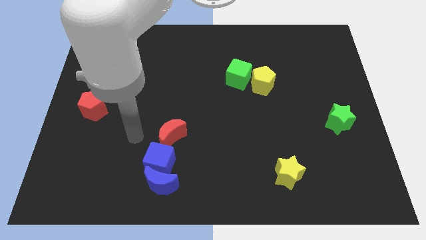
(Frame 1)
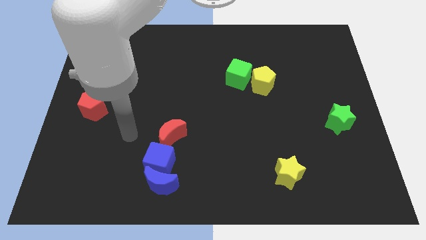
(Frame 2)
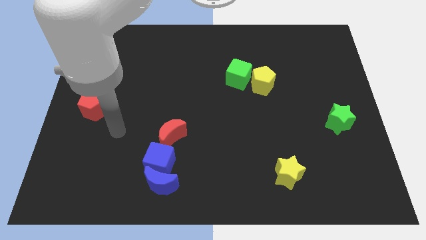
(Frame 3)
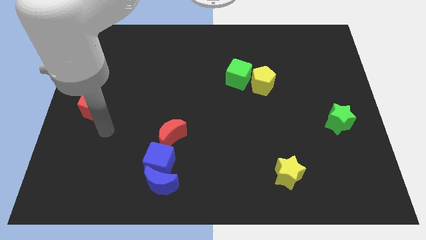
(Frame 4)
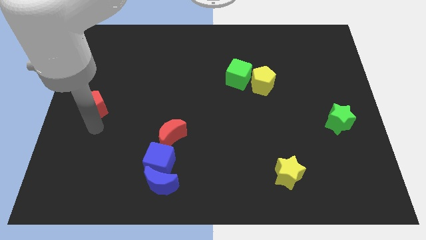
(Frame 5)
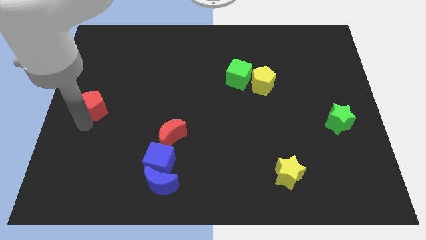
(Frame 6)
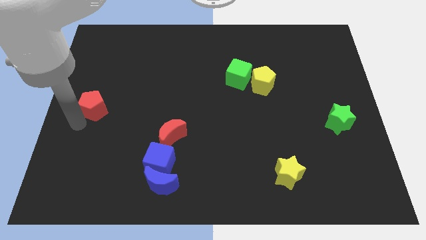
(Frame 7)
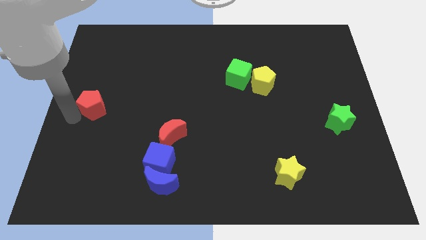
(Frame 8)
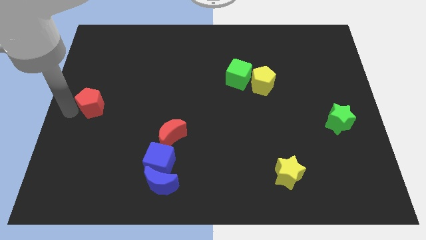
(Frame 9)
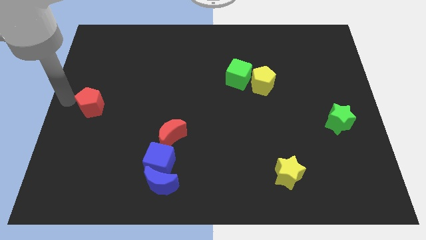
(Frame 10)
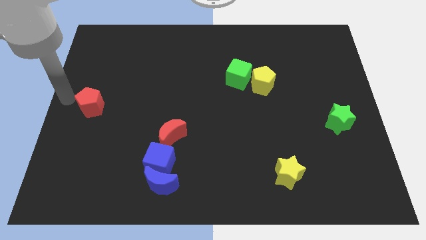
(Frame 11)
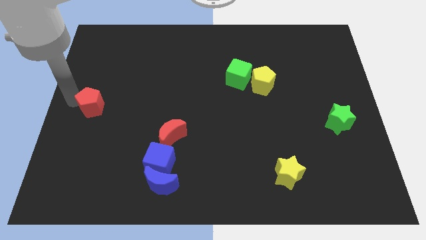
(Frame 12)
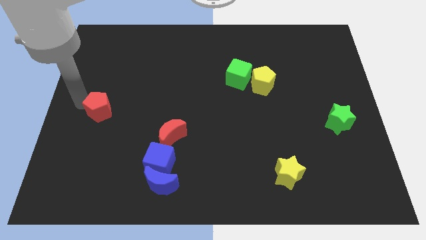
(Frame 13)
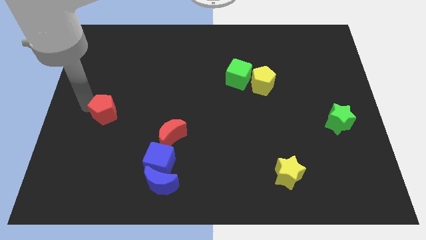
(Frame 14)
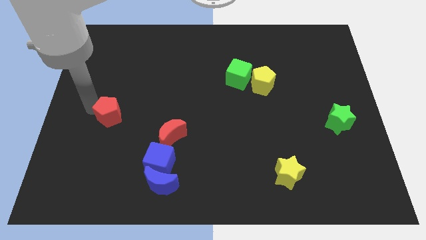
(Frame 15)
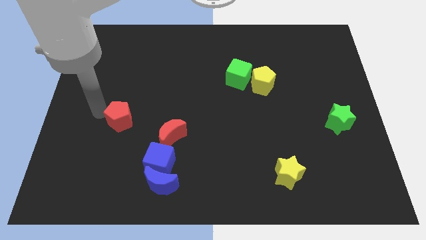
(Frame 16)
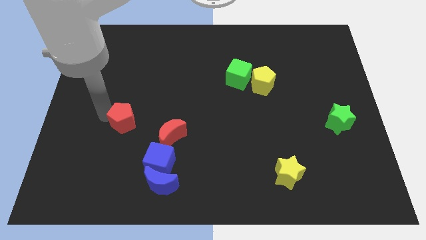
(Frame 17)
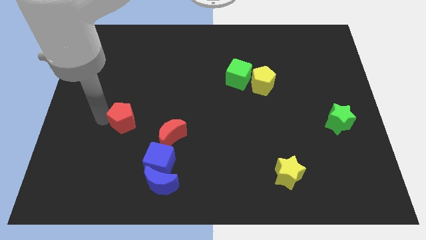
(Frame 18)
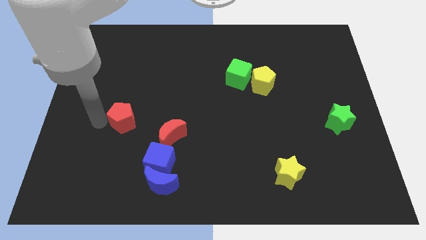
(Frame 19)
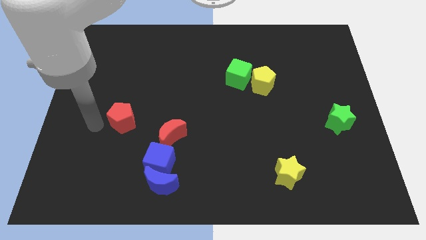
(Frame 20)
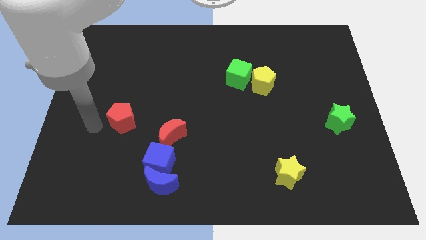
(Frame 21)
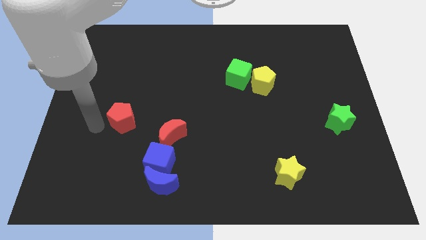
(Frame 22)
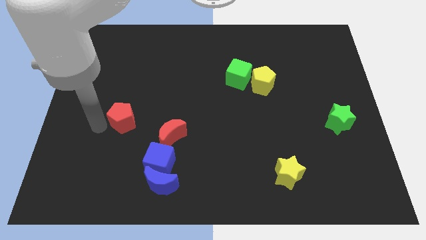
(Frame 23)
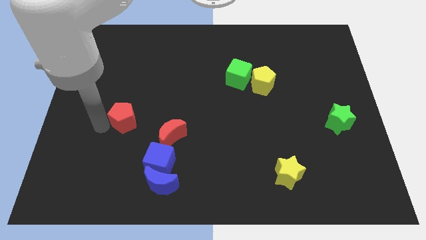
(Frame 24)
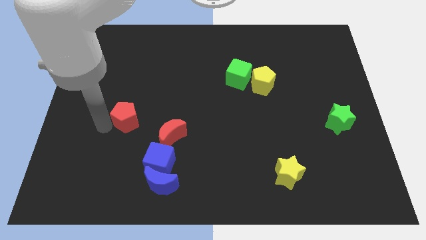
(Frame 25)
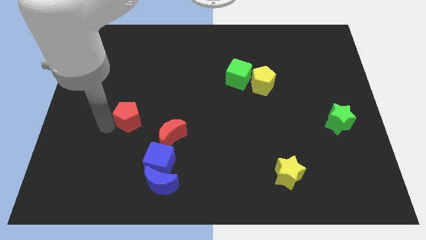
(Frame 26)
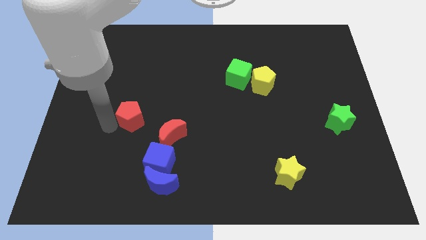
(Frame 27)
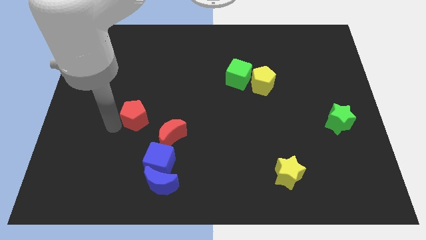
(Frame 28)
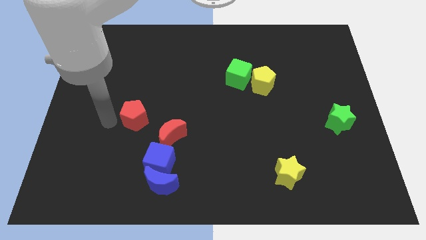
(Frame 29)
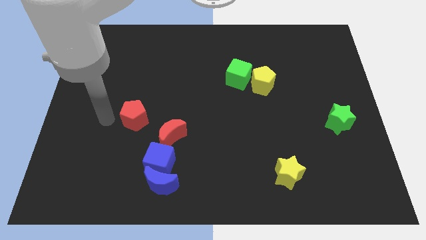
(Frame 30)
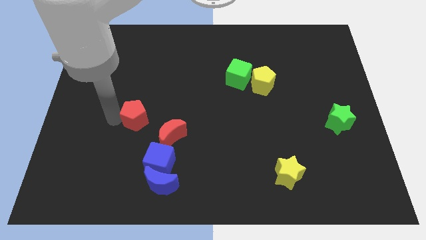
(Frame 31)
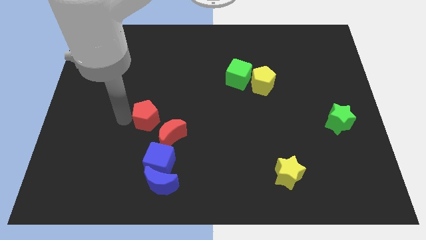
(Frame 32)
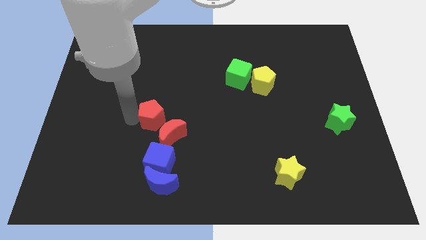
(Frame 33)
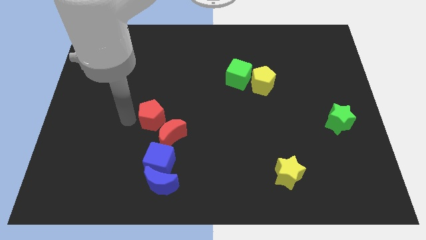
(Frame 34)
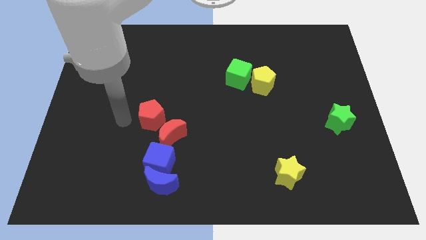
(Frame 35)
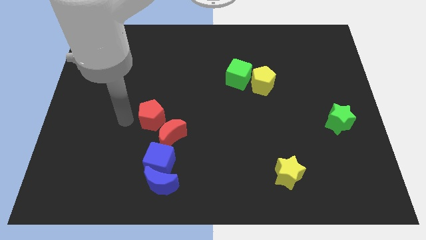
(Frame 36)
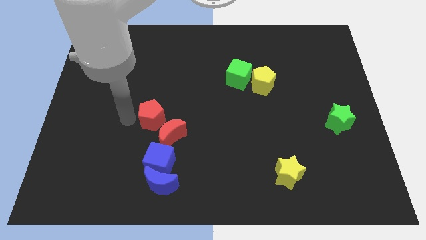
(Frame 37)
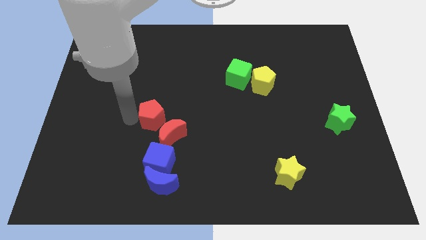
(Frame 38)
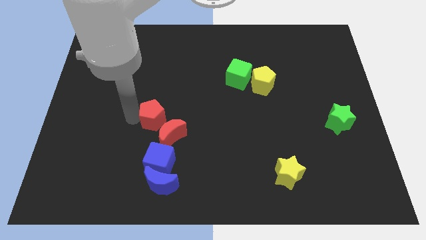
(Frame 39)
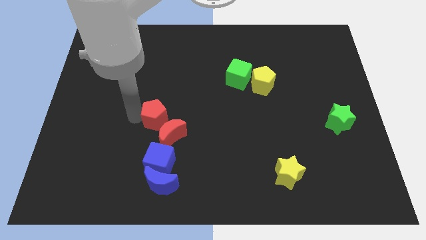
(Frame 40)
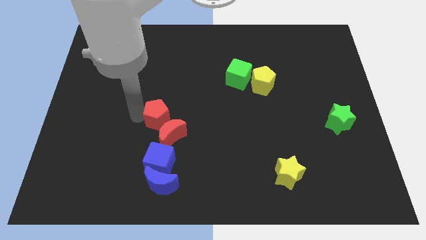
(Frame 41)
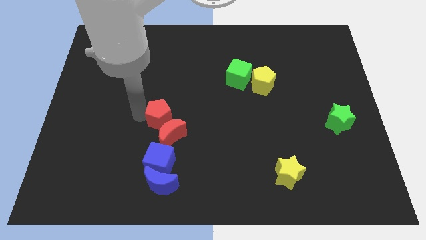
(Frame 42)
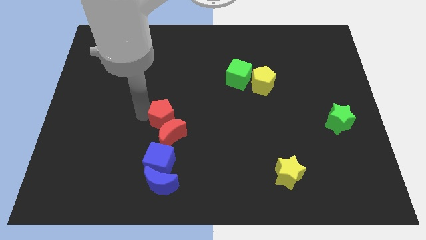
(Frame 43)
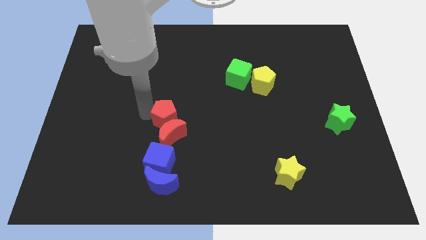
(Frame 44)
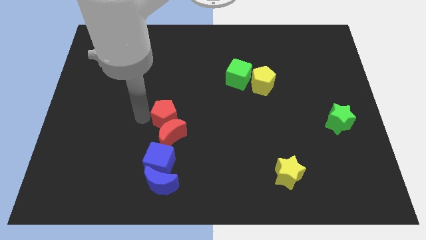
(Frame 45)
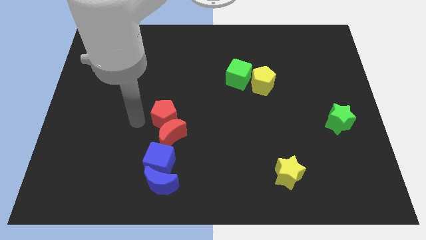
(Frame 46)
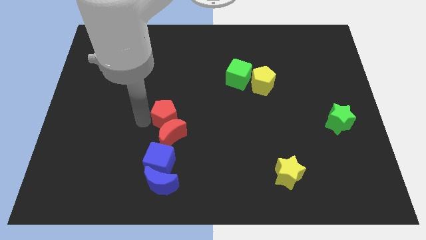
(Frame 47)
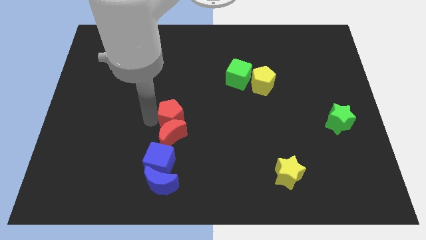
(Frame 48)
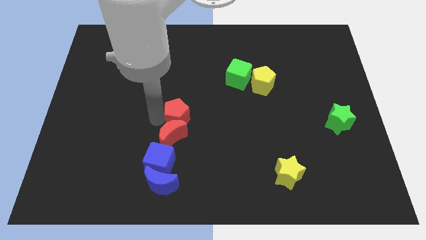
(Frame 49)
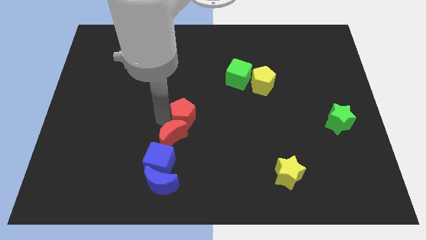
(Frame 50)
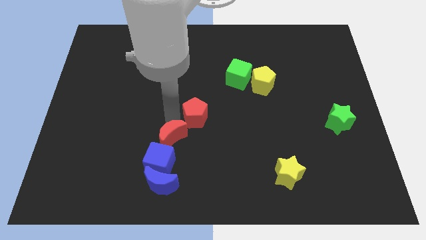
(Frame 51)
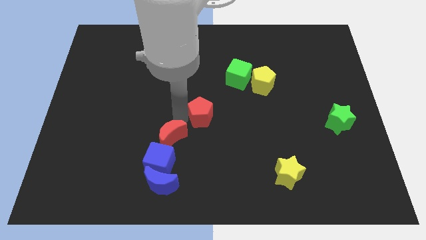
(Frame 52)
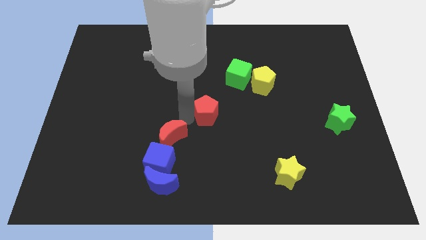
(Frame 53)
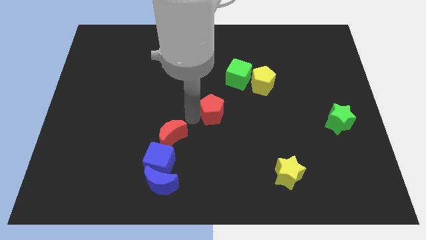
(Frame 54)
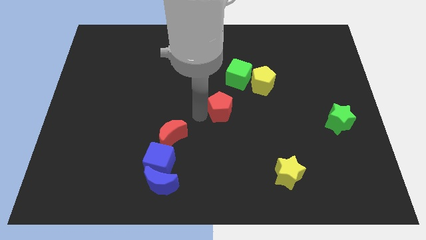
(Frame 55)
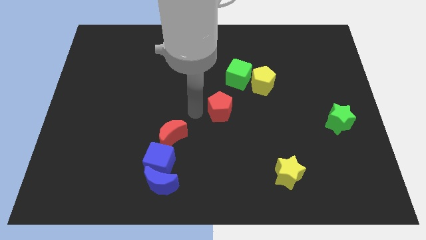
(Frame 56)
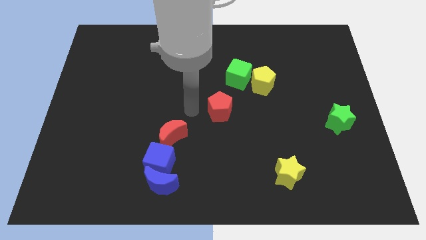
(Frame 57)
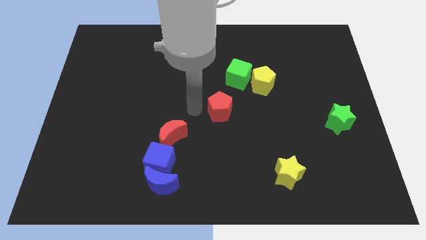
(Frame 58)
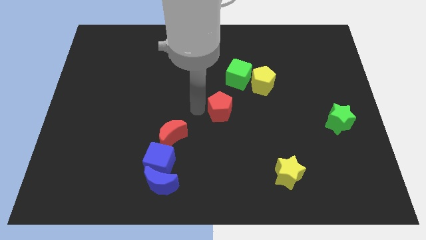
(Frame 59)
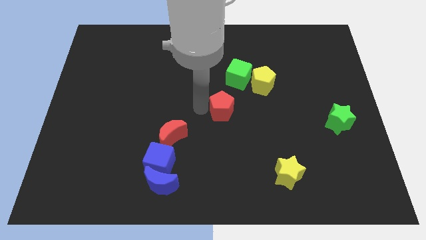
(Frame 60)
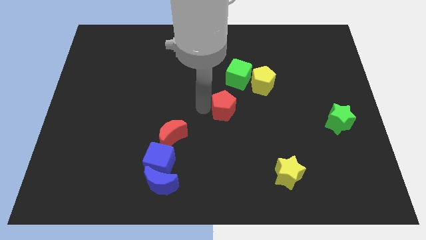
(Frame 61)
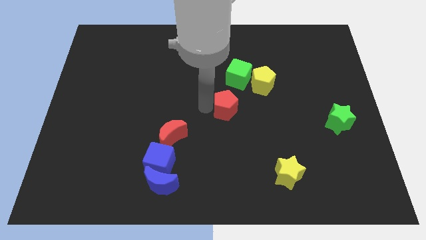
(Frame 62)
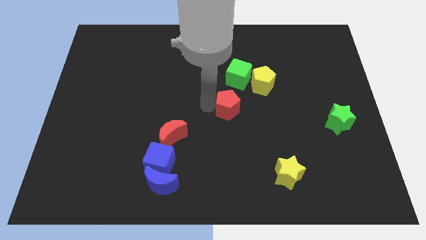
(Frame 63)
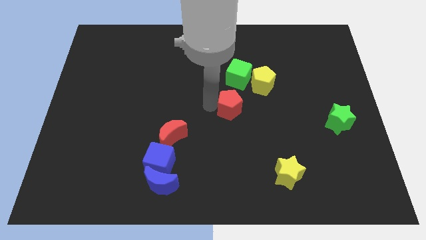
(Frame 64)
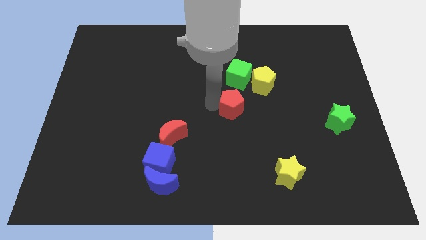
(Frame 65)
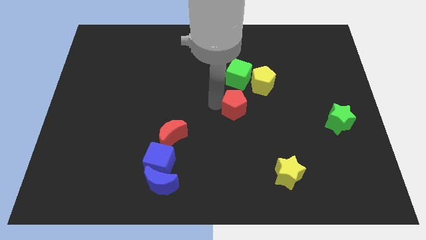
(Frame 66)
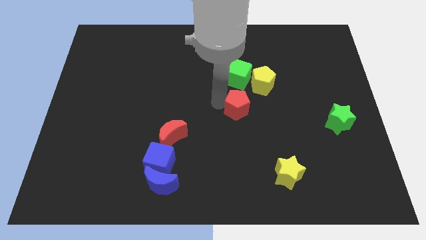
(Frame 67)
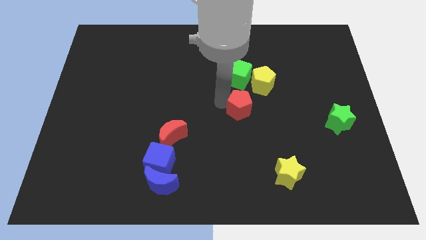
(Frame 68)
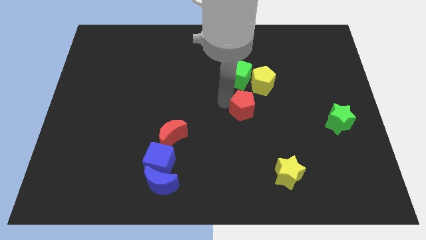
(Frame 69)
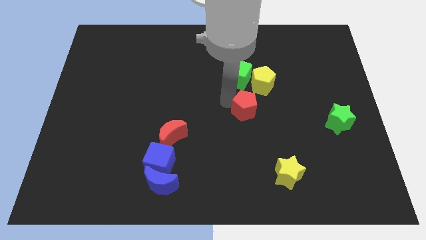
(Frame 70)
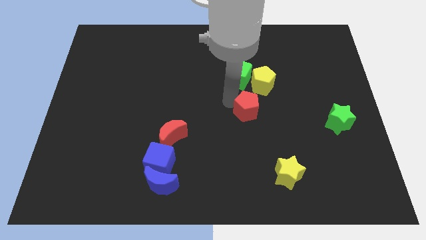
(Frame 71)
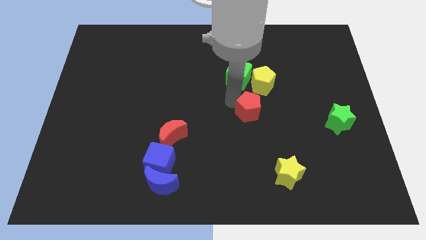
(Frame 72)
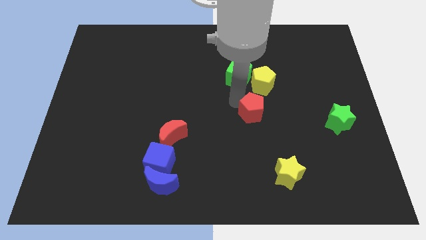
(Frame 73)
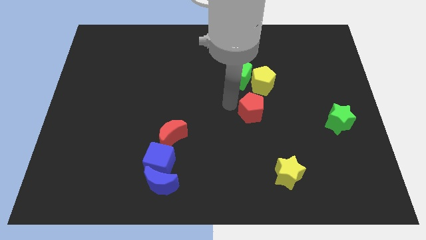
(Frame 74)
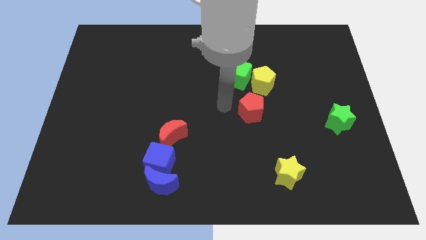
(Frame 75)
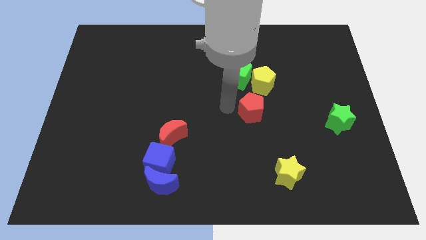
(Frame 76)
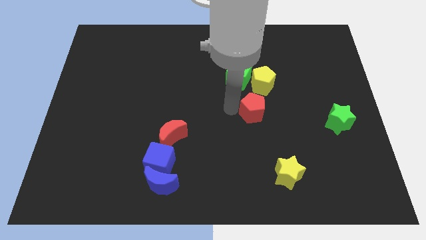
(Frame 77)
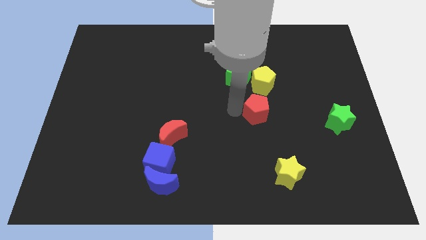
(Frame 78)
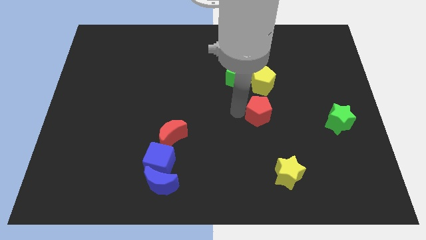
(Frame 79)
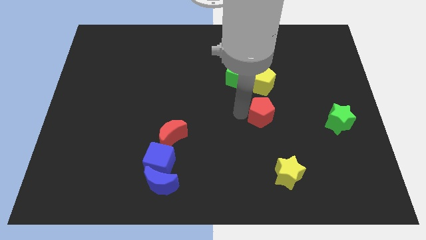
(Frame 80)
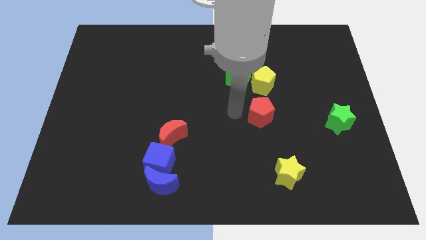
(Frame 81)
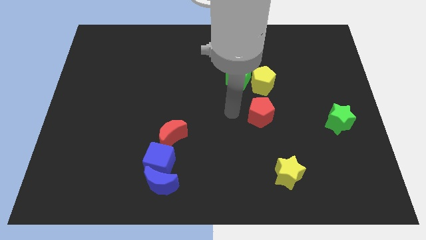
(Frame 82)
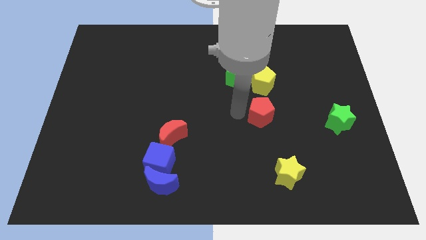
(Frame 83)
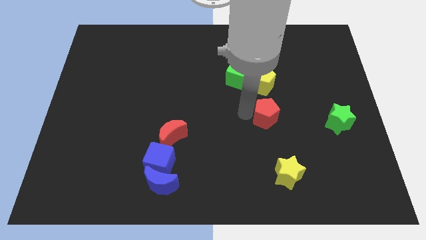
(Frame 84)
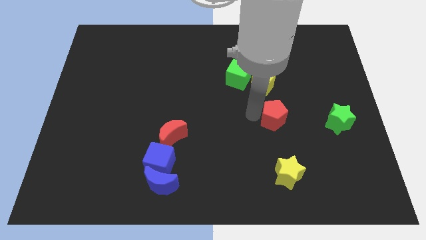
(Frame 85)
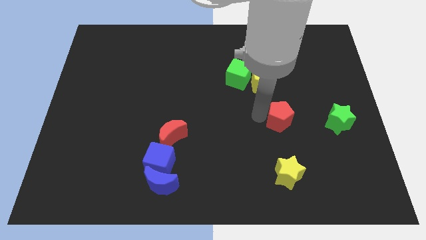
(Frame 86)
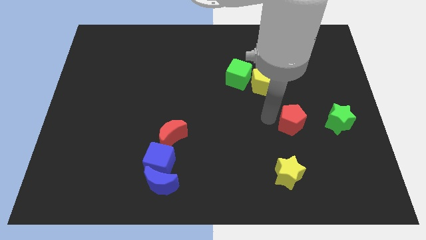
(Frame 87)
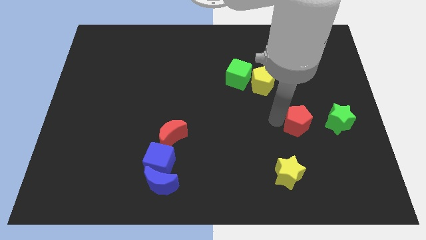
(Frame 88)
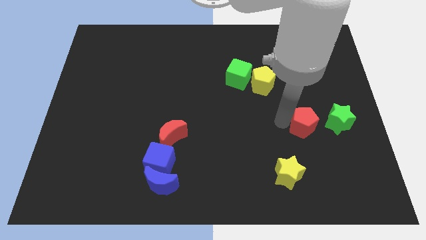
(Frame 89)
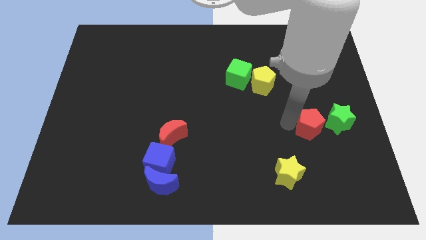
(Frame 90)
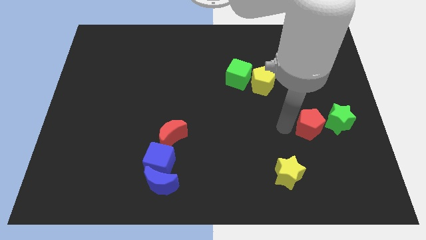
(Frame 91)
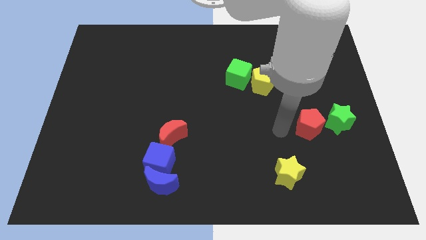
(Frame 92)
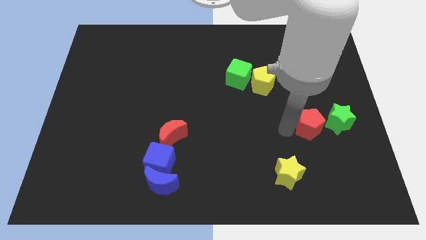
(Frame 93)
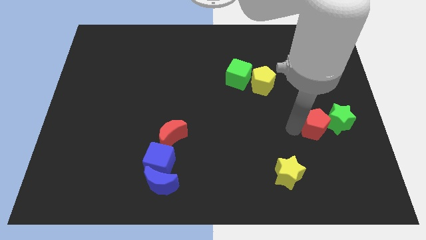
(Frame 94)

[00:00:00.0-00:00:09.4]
move the red pentagon next to the green star
